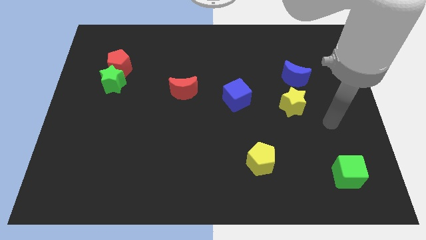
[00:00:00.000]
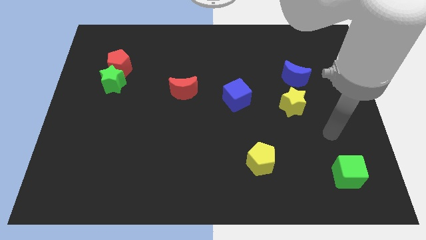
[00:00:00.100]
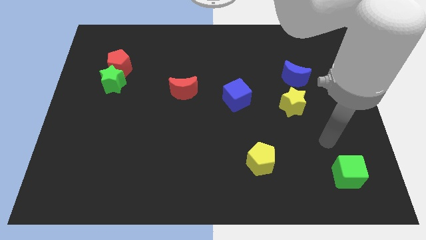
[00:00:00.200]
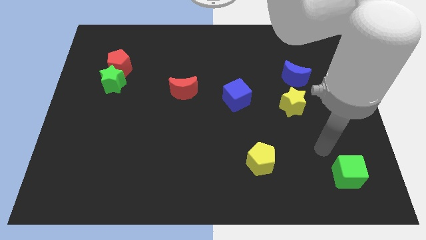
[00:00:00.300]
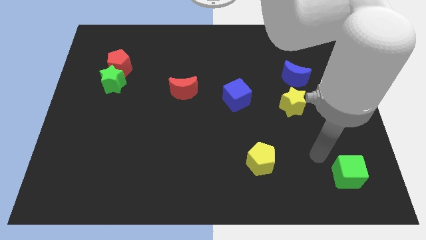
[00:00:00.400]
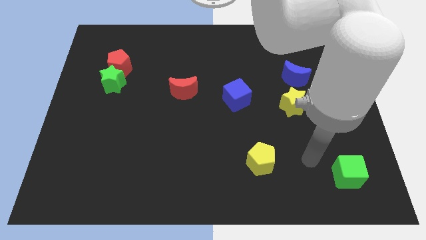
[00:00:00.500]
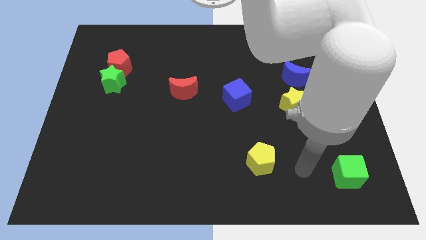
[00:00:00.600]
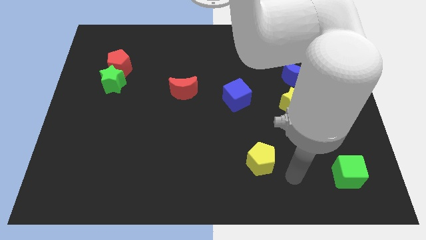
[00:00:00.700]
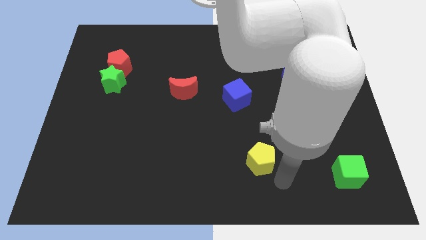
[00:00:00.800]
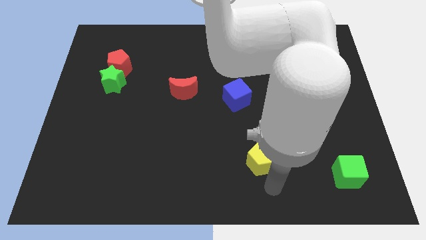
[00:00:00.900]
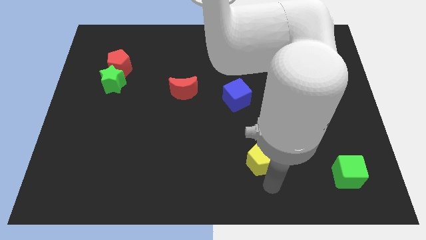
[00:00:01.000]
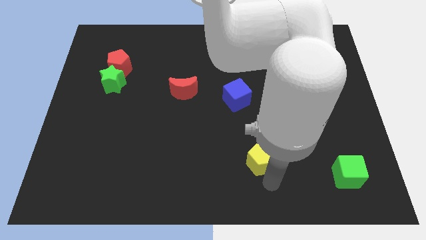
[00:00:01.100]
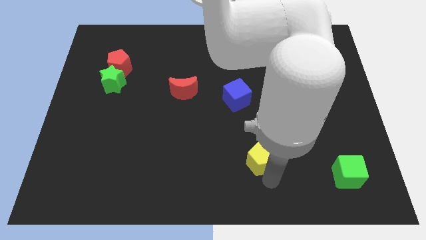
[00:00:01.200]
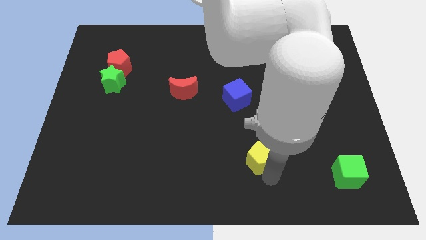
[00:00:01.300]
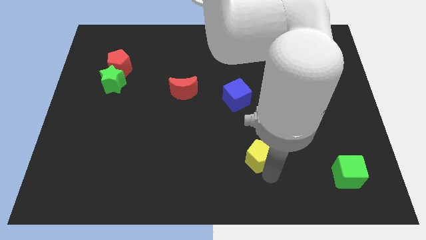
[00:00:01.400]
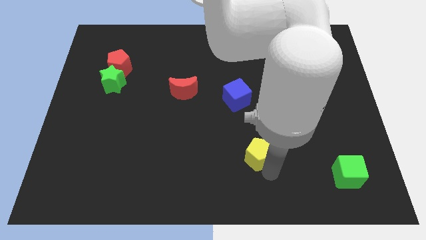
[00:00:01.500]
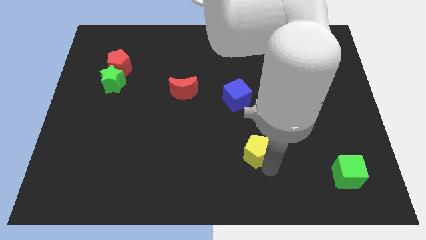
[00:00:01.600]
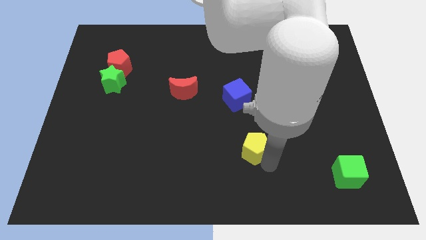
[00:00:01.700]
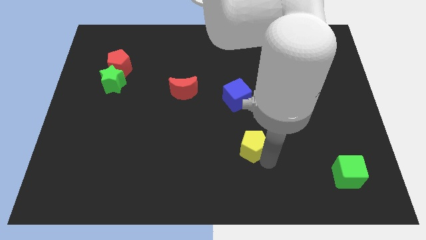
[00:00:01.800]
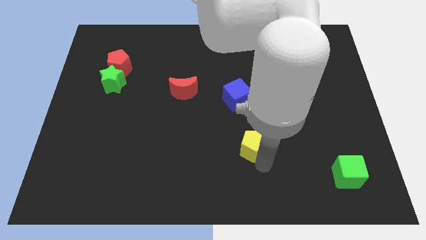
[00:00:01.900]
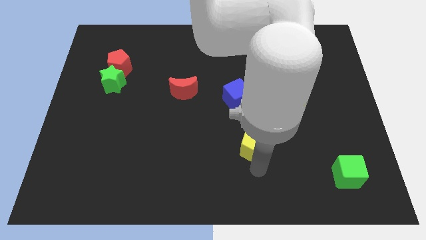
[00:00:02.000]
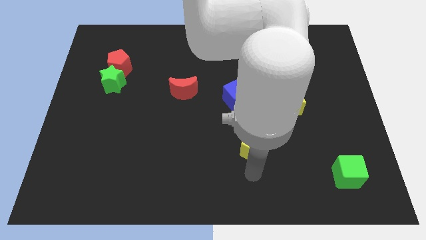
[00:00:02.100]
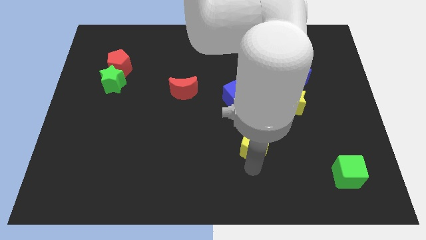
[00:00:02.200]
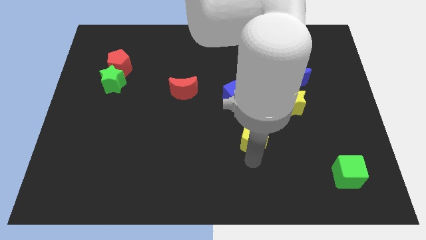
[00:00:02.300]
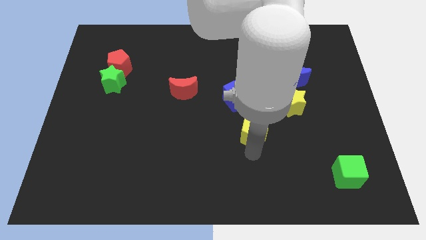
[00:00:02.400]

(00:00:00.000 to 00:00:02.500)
push the yellow pentagon up slightly

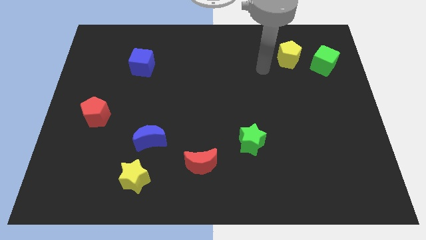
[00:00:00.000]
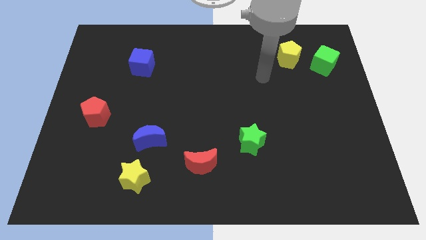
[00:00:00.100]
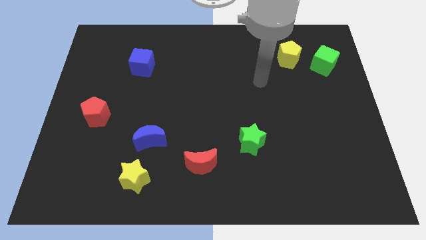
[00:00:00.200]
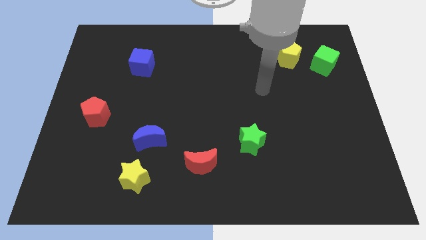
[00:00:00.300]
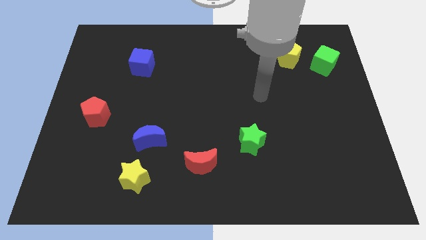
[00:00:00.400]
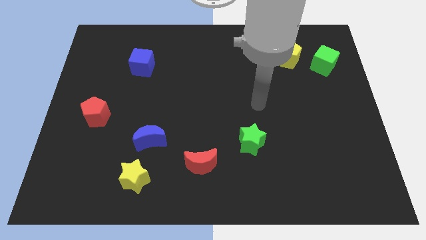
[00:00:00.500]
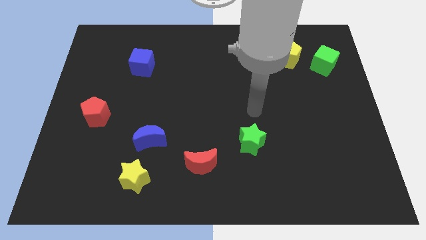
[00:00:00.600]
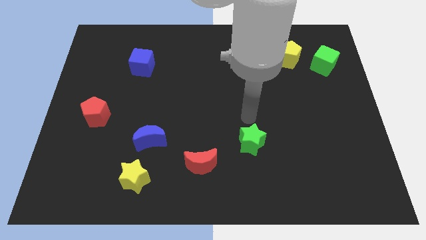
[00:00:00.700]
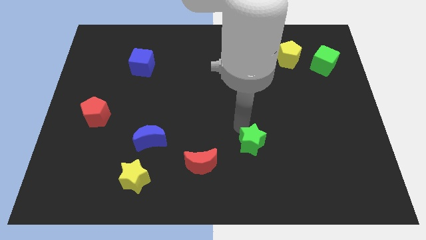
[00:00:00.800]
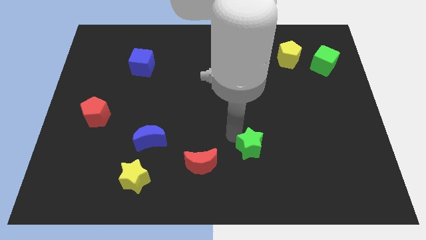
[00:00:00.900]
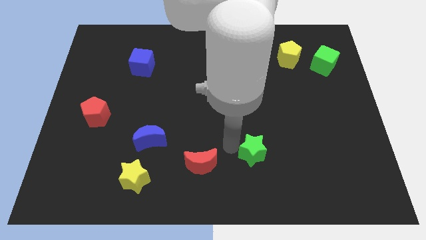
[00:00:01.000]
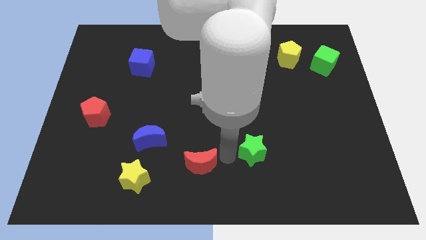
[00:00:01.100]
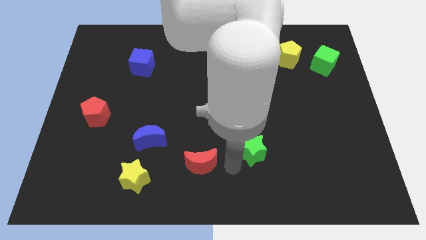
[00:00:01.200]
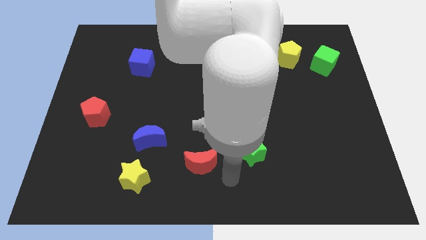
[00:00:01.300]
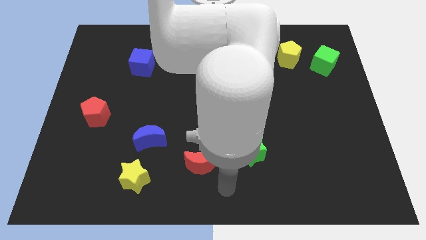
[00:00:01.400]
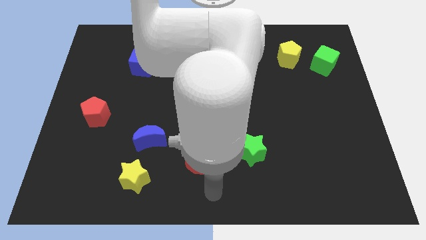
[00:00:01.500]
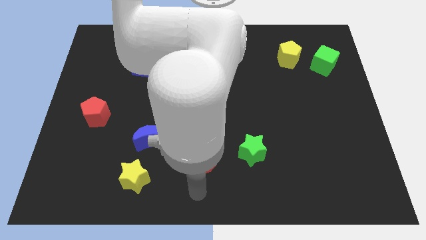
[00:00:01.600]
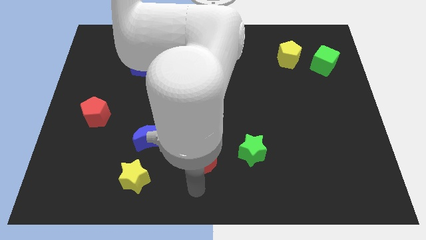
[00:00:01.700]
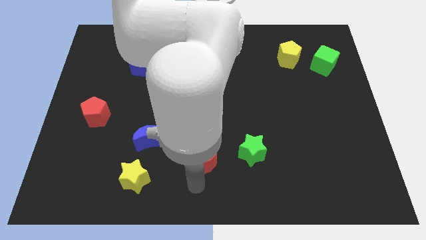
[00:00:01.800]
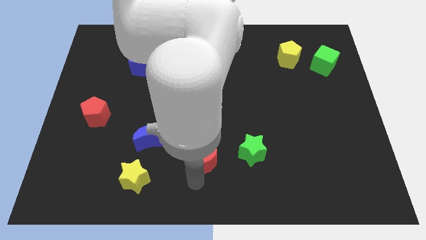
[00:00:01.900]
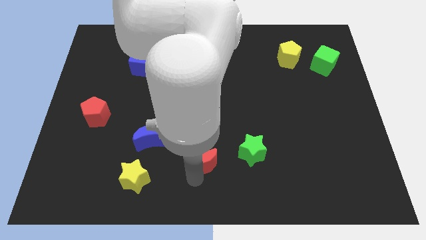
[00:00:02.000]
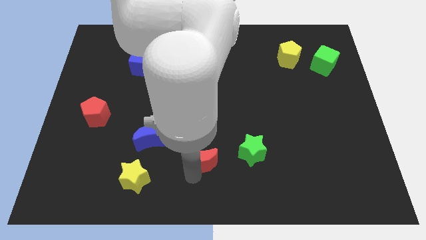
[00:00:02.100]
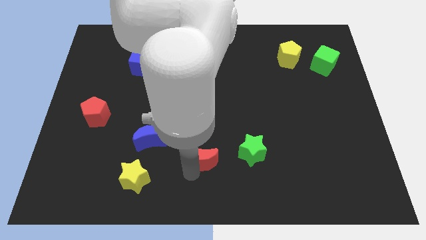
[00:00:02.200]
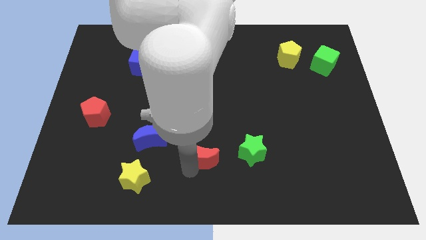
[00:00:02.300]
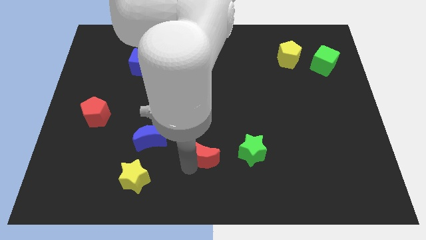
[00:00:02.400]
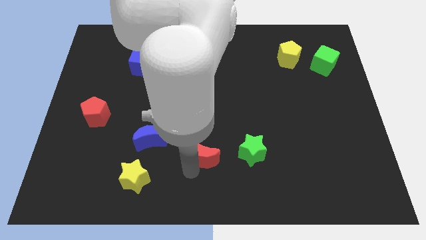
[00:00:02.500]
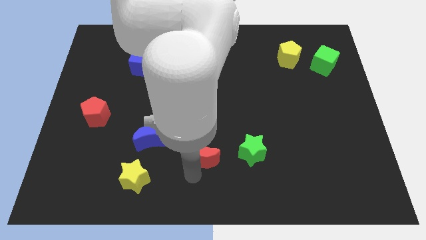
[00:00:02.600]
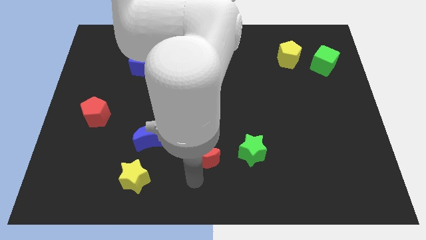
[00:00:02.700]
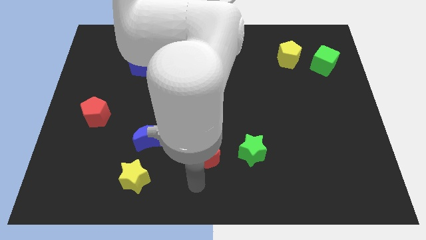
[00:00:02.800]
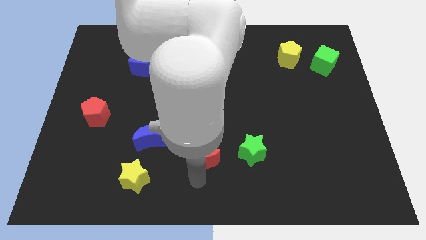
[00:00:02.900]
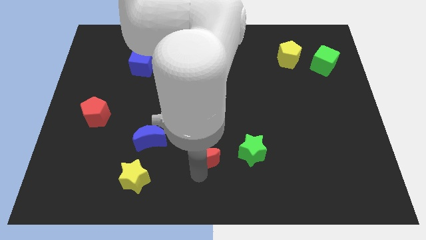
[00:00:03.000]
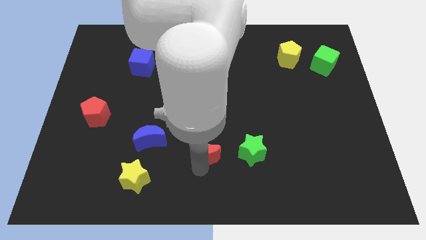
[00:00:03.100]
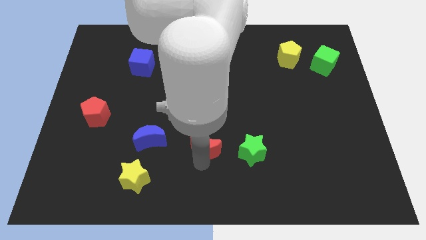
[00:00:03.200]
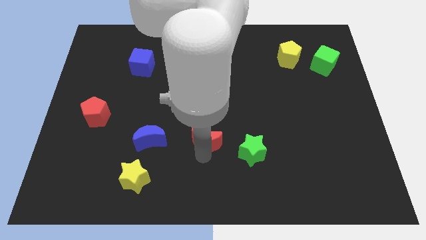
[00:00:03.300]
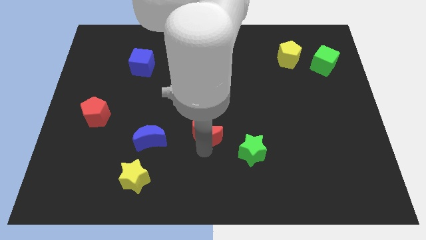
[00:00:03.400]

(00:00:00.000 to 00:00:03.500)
slightly push the red moon upwards

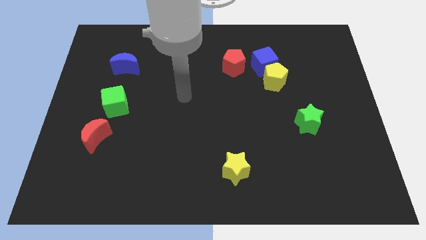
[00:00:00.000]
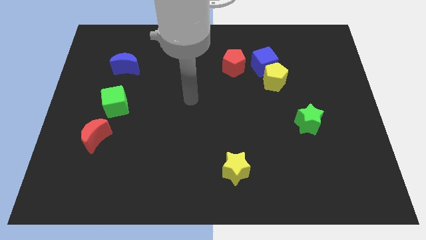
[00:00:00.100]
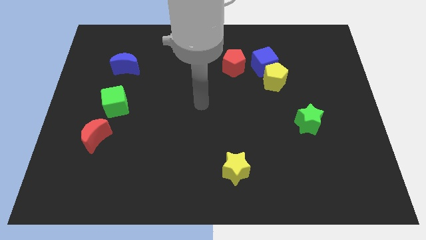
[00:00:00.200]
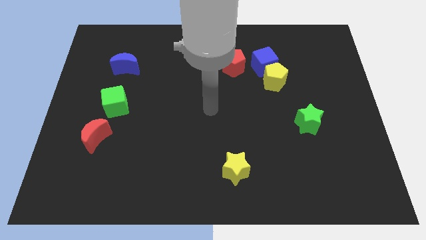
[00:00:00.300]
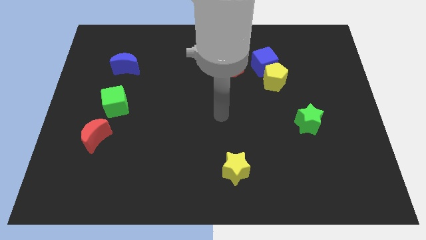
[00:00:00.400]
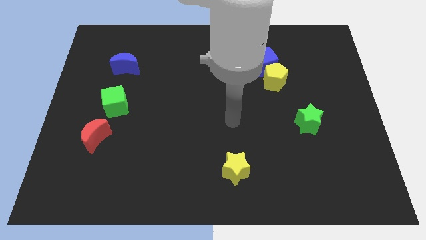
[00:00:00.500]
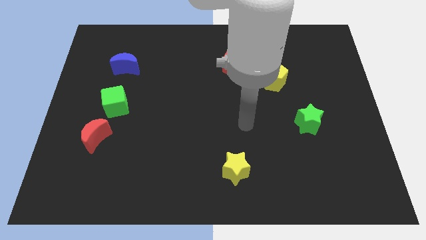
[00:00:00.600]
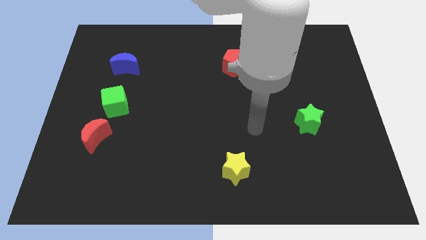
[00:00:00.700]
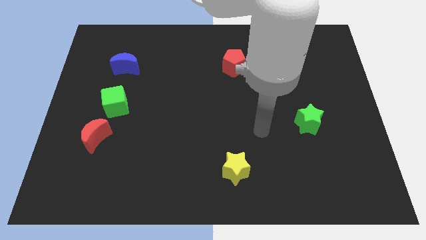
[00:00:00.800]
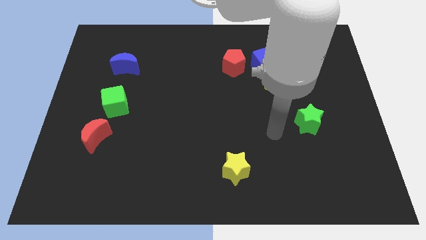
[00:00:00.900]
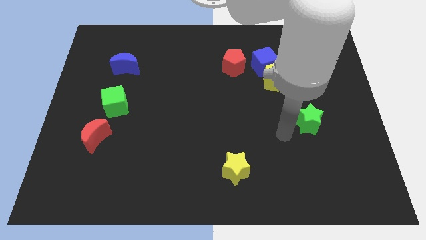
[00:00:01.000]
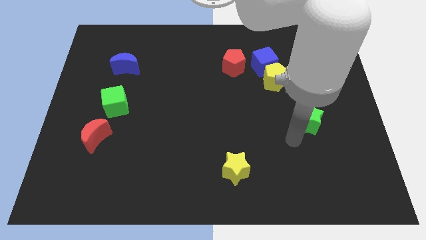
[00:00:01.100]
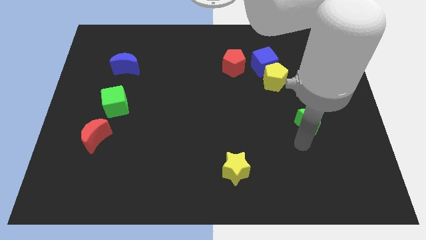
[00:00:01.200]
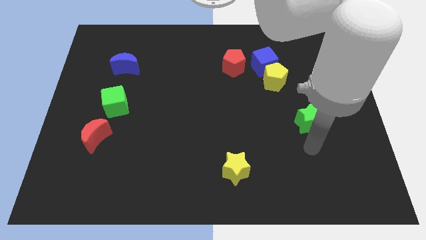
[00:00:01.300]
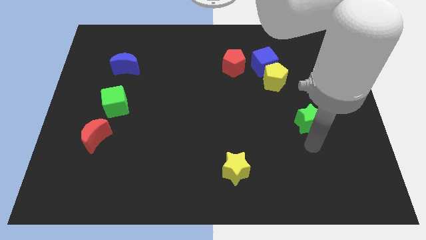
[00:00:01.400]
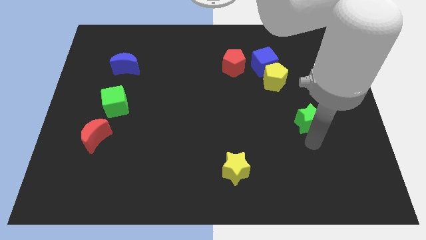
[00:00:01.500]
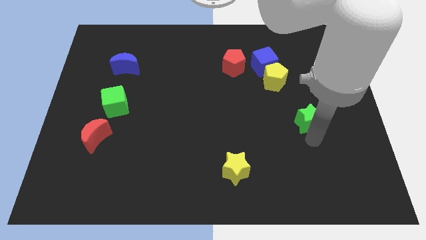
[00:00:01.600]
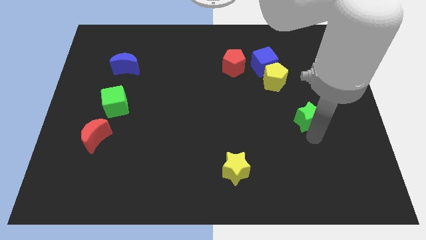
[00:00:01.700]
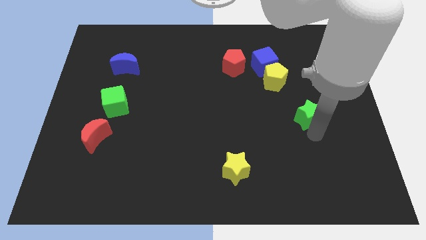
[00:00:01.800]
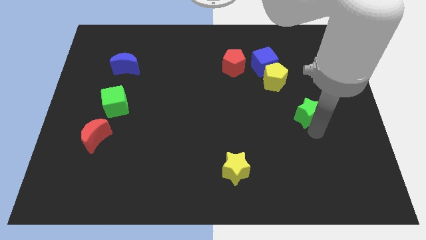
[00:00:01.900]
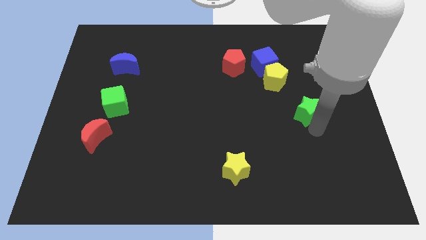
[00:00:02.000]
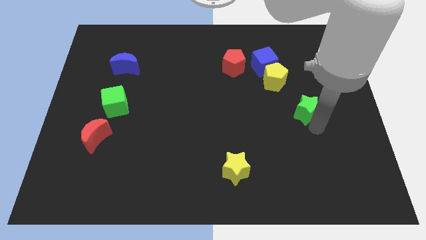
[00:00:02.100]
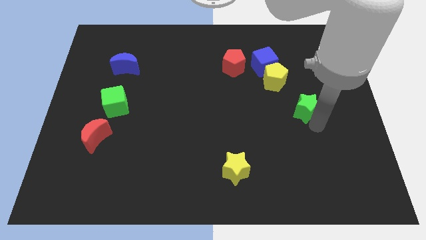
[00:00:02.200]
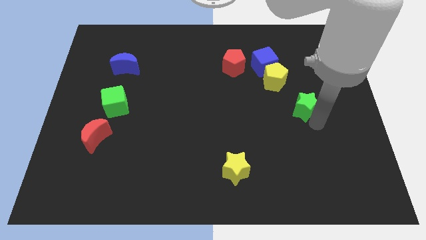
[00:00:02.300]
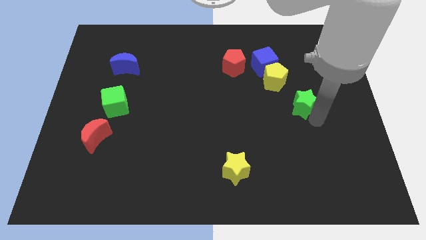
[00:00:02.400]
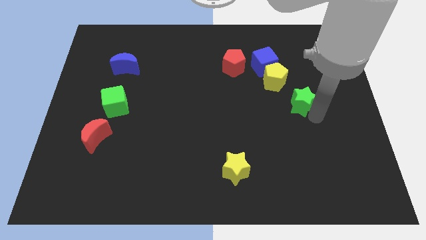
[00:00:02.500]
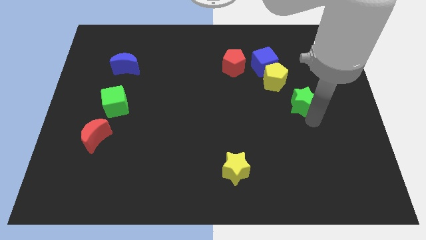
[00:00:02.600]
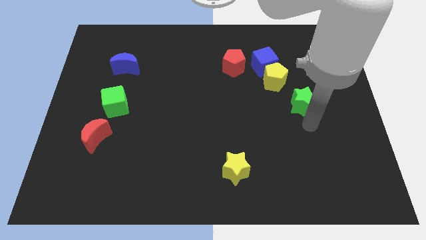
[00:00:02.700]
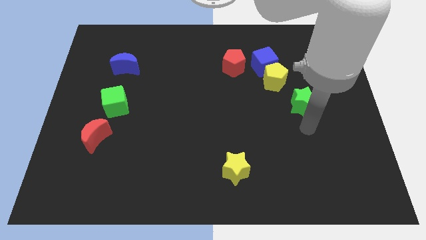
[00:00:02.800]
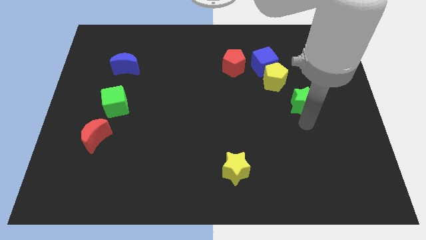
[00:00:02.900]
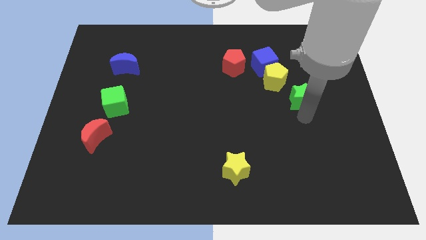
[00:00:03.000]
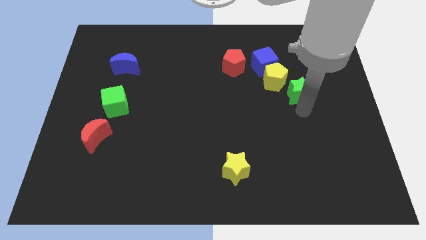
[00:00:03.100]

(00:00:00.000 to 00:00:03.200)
move the green star somewhat upwards
